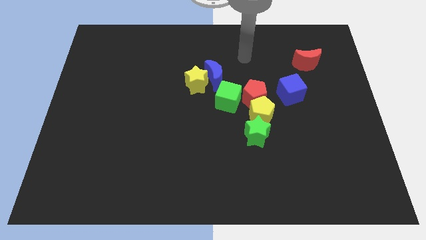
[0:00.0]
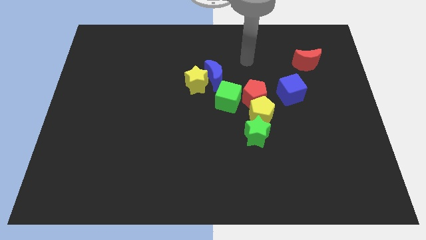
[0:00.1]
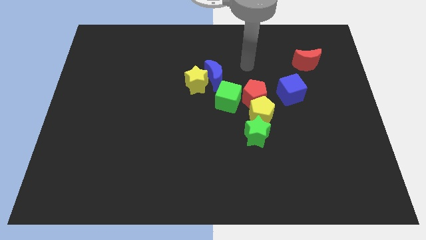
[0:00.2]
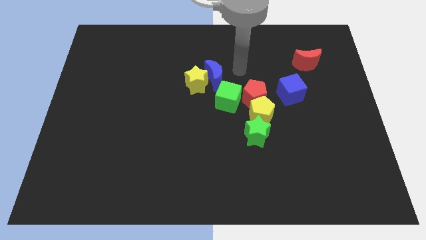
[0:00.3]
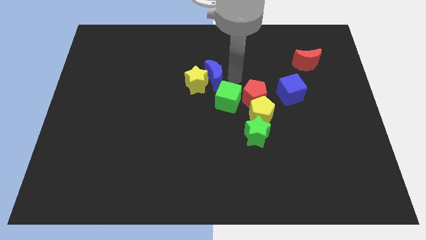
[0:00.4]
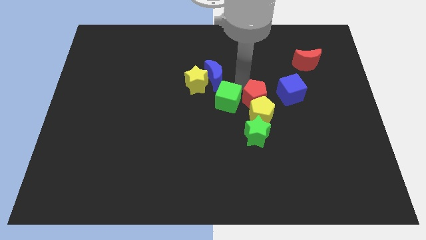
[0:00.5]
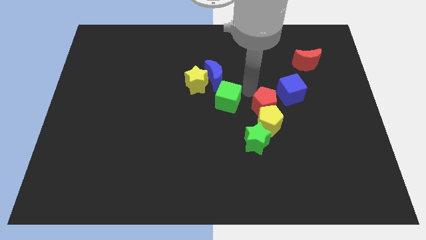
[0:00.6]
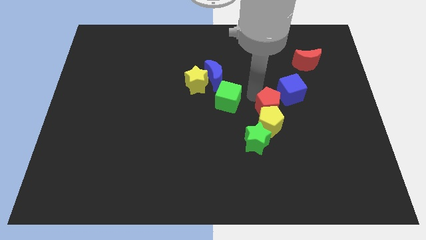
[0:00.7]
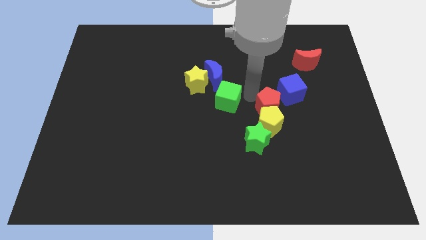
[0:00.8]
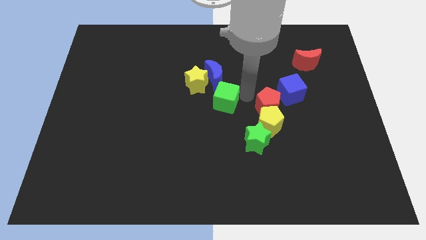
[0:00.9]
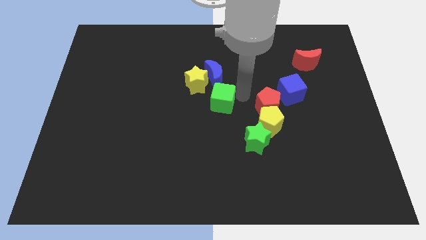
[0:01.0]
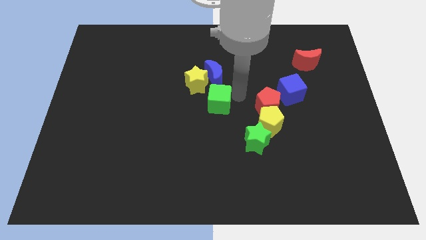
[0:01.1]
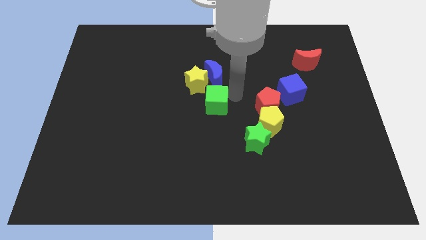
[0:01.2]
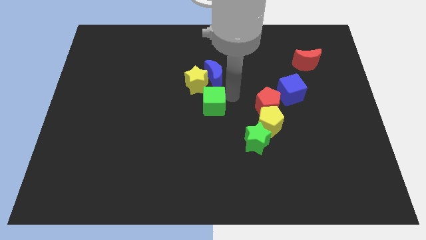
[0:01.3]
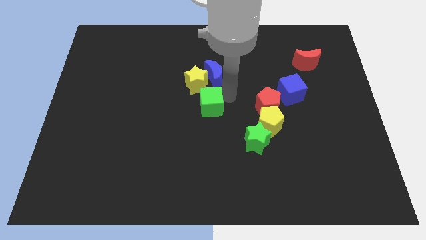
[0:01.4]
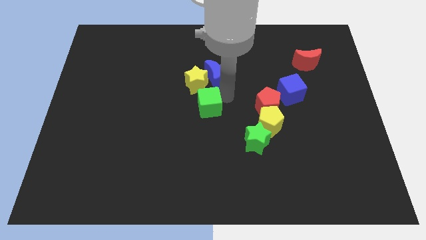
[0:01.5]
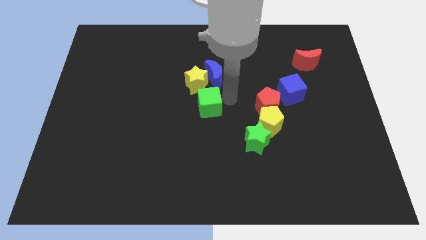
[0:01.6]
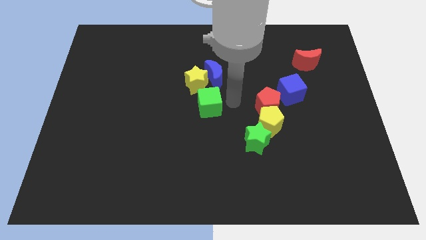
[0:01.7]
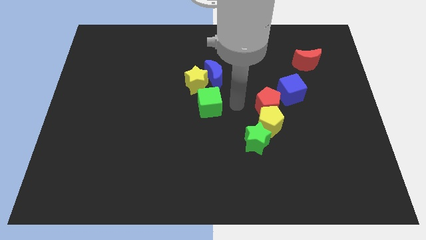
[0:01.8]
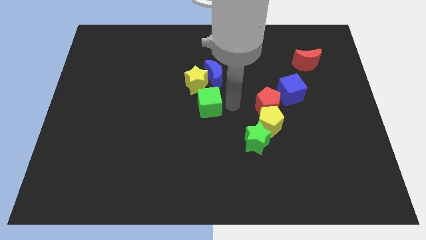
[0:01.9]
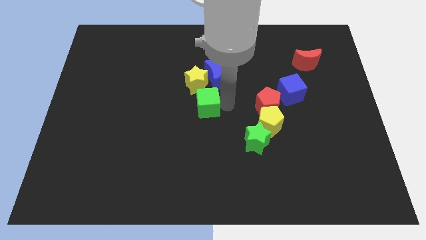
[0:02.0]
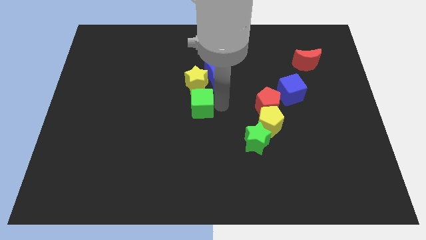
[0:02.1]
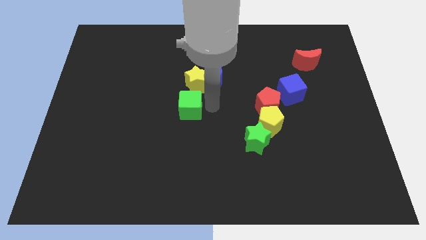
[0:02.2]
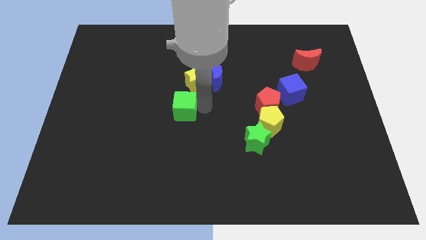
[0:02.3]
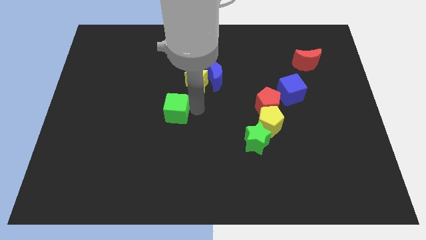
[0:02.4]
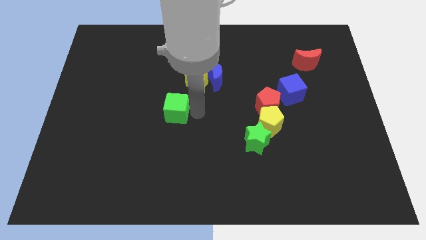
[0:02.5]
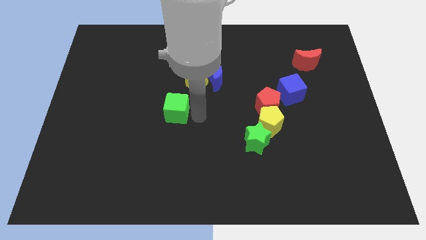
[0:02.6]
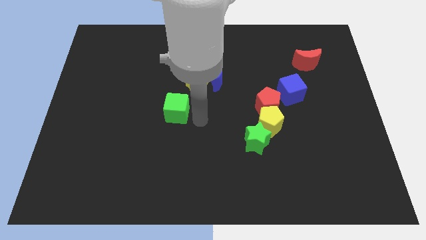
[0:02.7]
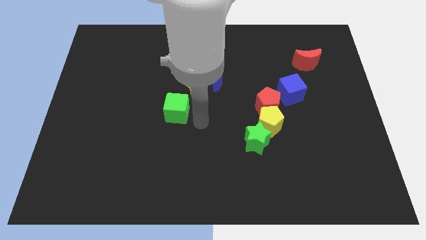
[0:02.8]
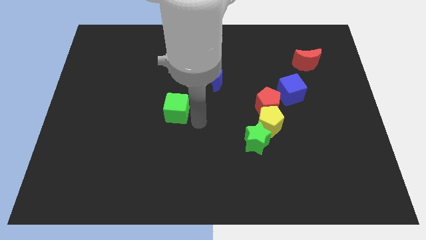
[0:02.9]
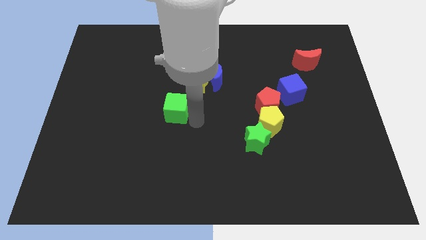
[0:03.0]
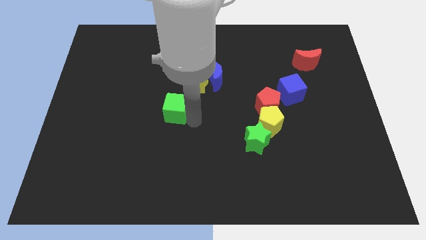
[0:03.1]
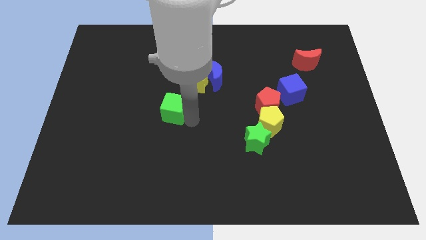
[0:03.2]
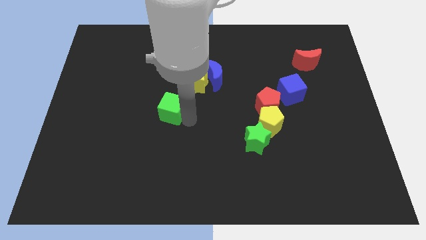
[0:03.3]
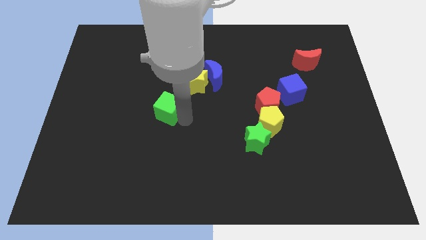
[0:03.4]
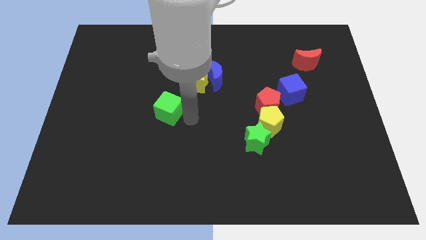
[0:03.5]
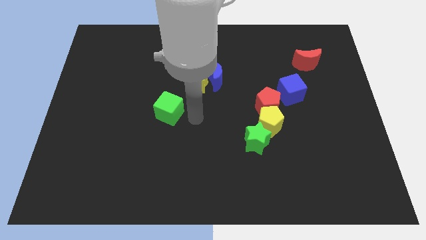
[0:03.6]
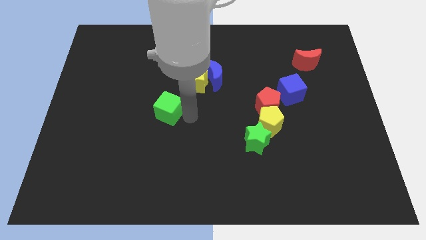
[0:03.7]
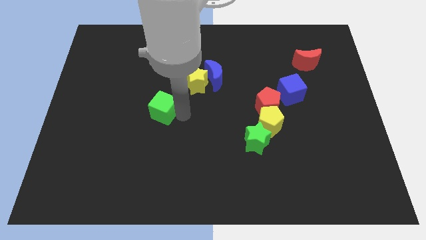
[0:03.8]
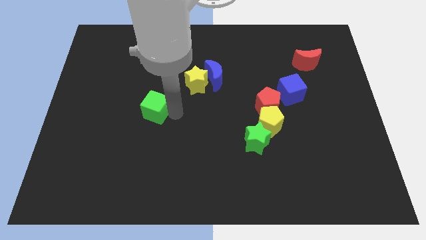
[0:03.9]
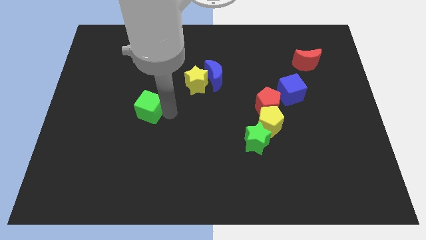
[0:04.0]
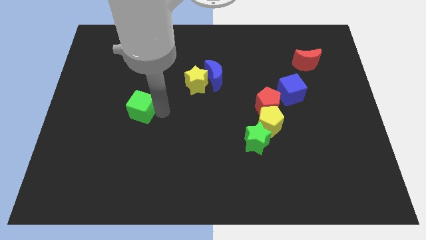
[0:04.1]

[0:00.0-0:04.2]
move the green cube left

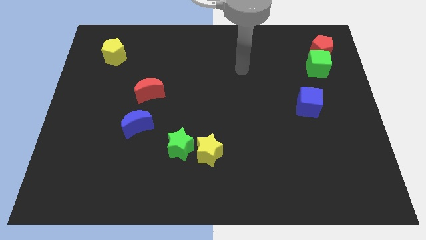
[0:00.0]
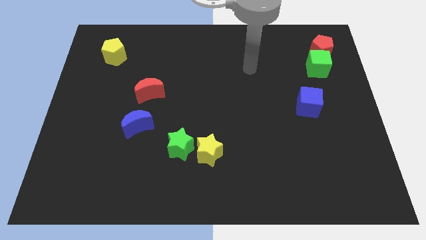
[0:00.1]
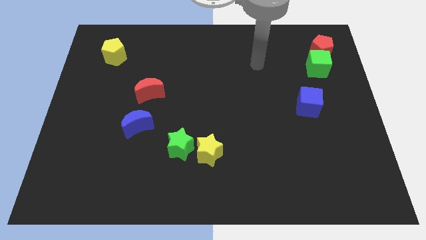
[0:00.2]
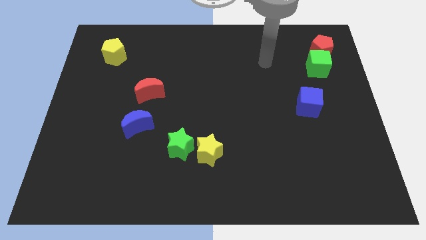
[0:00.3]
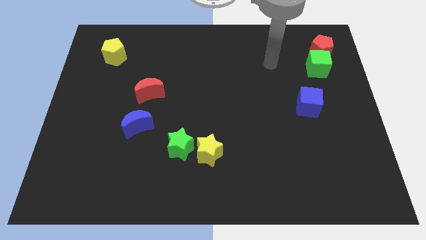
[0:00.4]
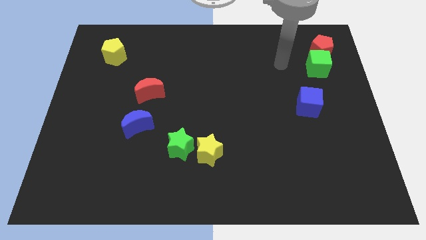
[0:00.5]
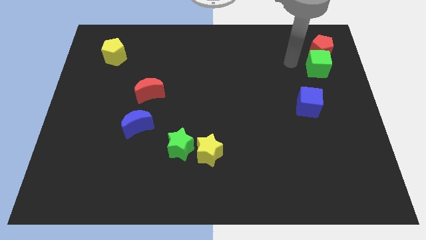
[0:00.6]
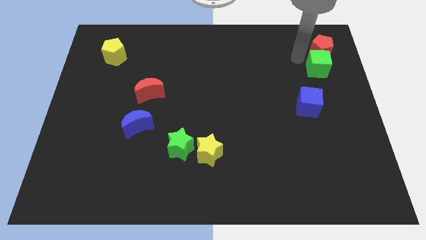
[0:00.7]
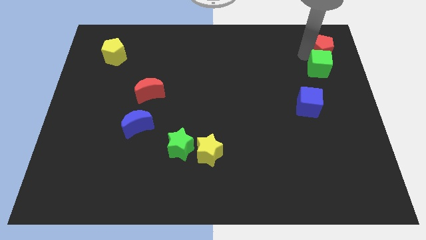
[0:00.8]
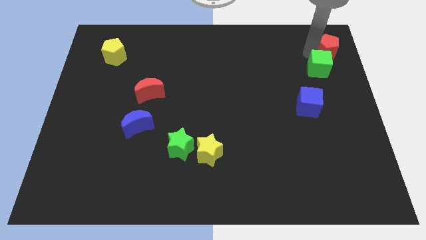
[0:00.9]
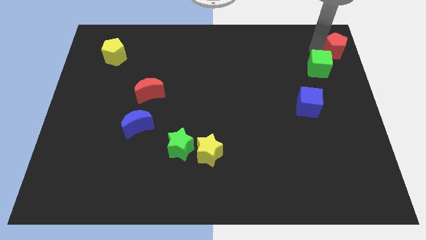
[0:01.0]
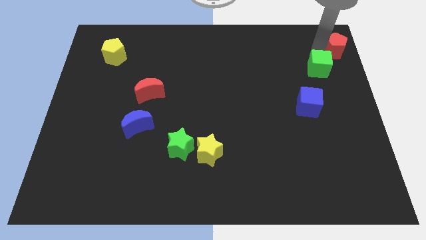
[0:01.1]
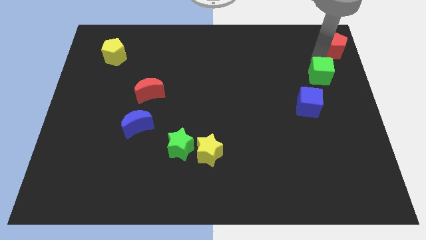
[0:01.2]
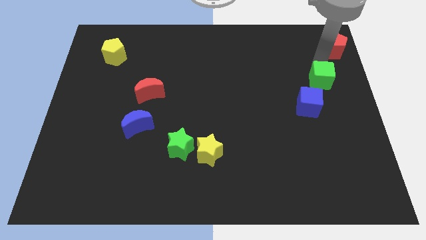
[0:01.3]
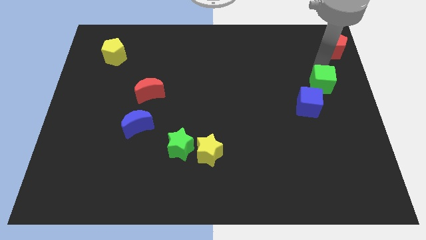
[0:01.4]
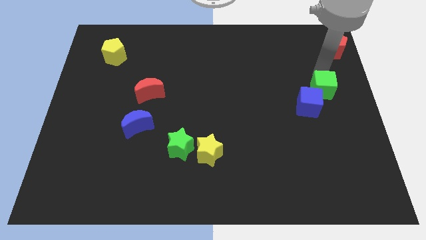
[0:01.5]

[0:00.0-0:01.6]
slide the green cube slightly down

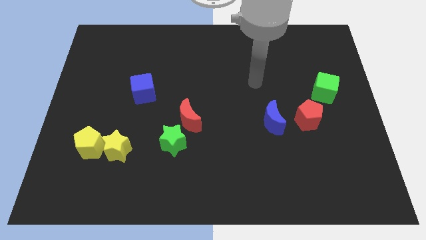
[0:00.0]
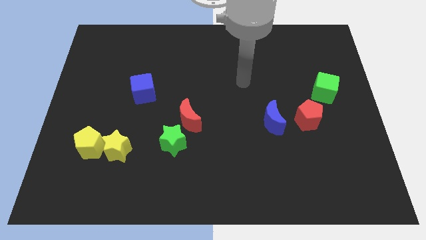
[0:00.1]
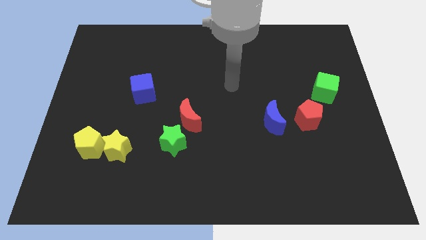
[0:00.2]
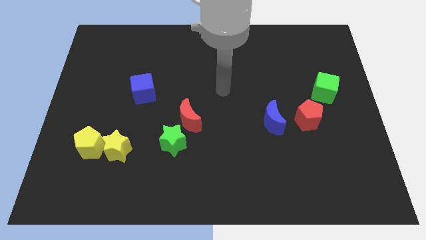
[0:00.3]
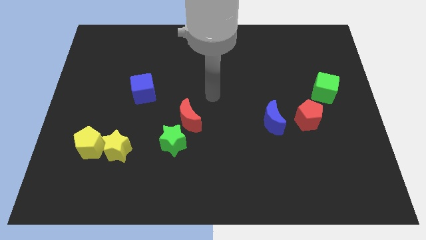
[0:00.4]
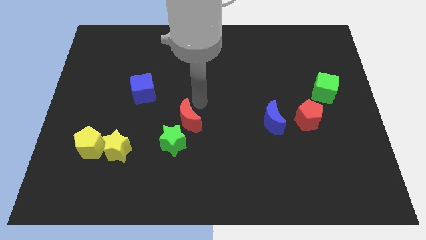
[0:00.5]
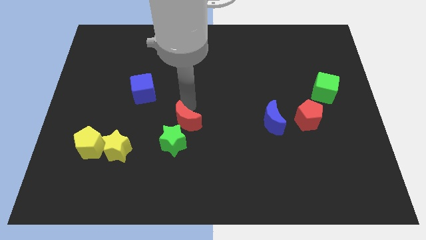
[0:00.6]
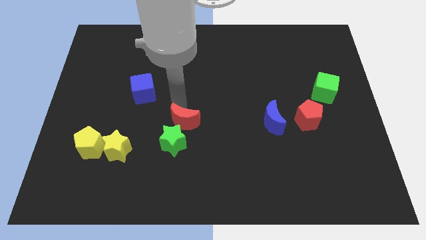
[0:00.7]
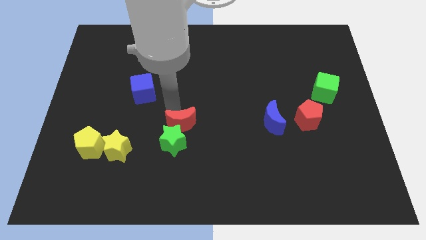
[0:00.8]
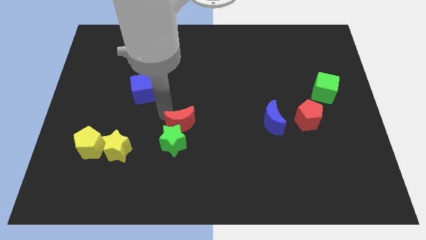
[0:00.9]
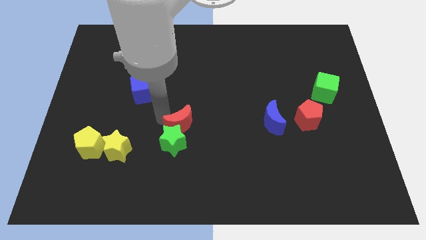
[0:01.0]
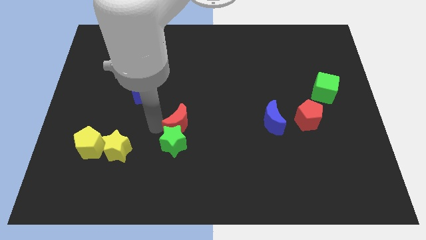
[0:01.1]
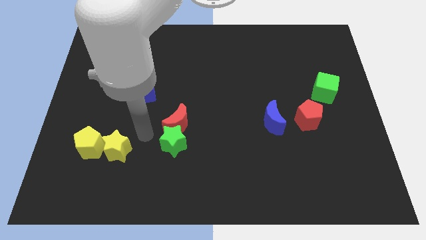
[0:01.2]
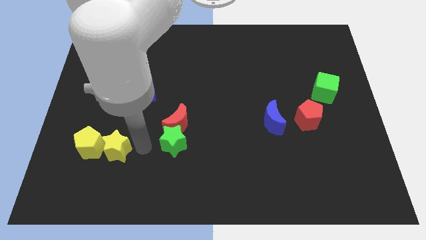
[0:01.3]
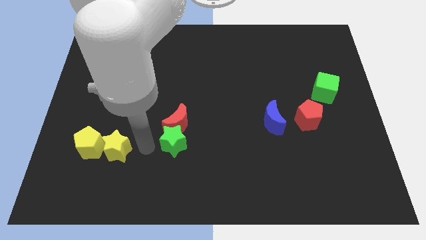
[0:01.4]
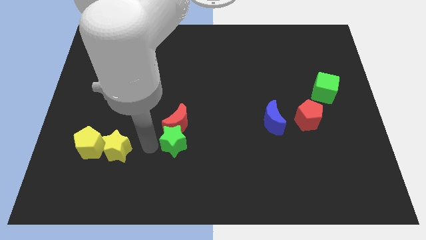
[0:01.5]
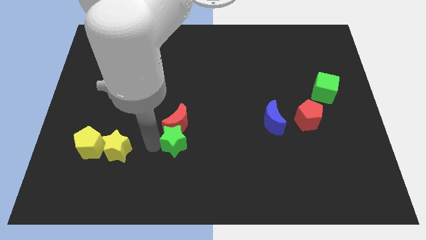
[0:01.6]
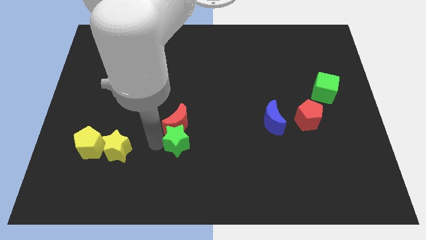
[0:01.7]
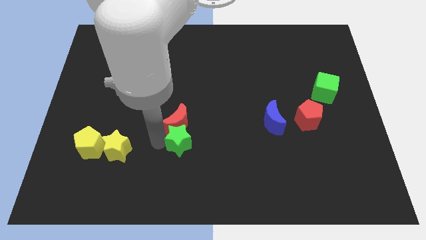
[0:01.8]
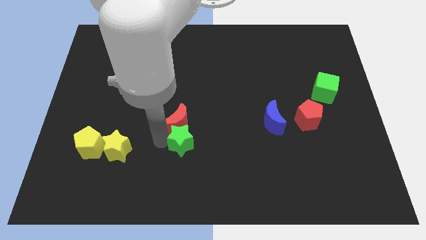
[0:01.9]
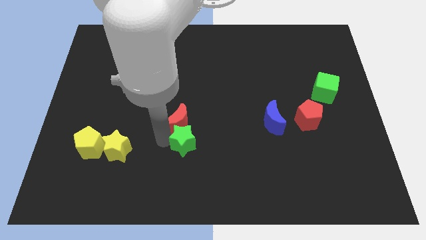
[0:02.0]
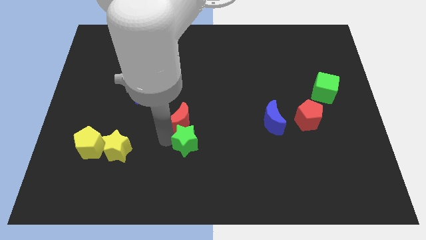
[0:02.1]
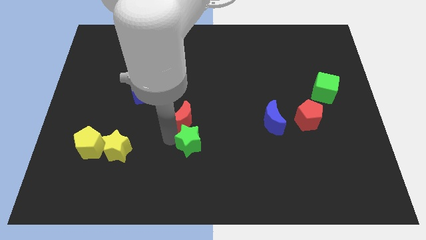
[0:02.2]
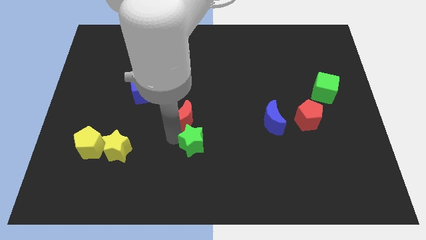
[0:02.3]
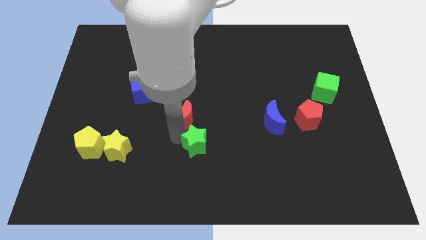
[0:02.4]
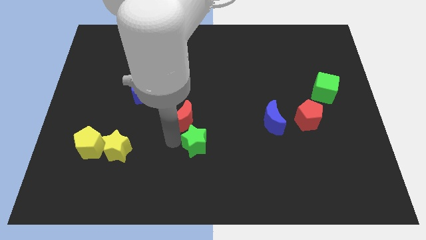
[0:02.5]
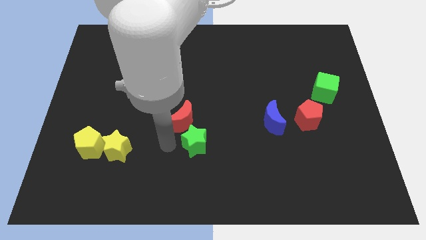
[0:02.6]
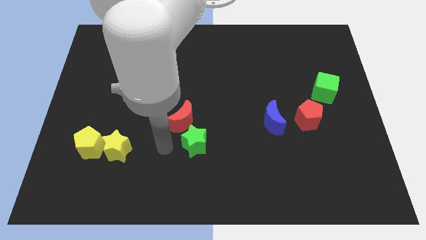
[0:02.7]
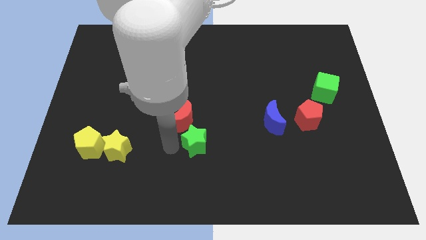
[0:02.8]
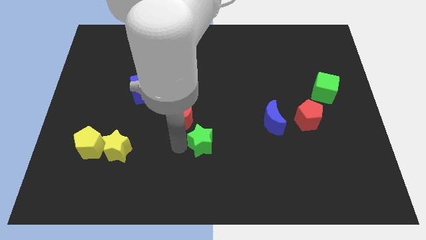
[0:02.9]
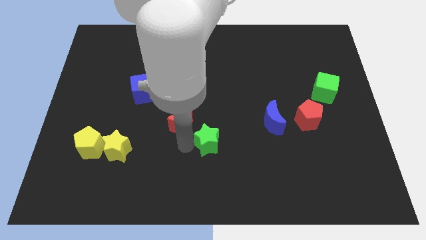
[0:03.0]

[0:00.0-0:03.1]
slide the green star to the right a bit
